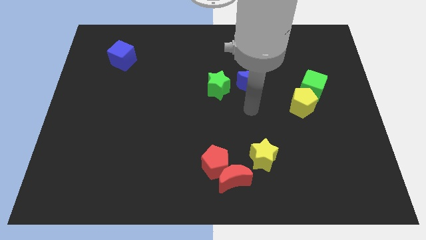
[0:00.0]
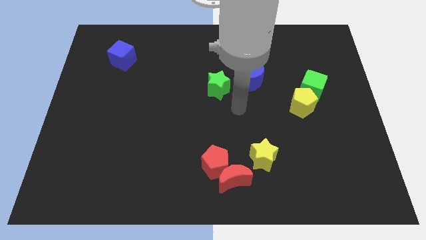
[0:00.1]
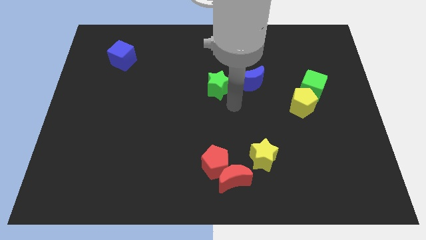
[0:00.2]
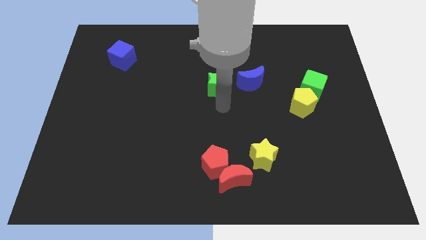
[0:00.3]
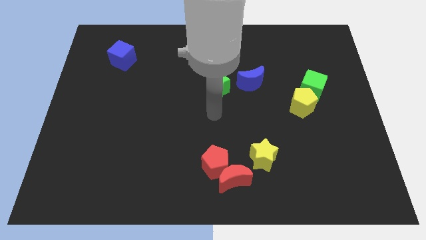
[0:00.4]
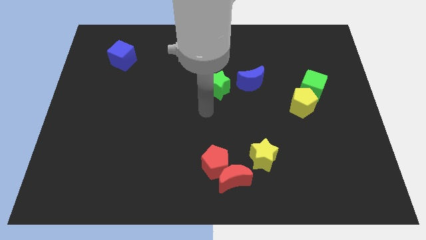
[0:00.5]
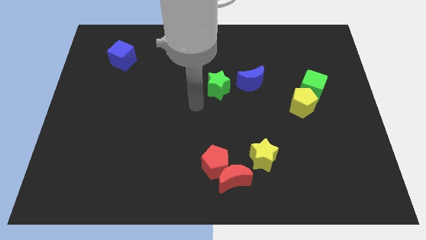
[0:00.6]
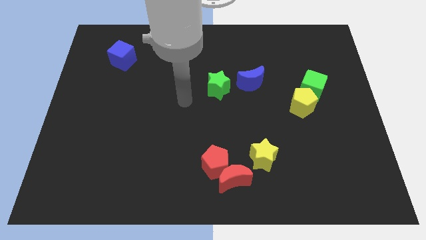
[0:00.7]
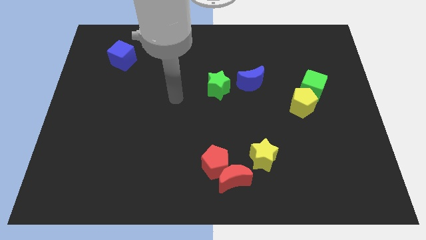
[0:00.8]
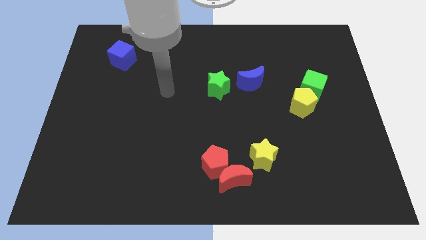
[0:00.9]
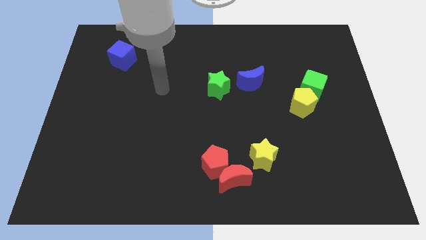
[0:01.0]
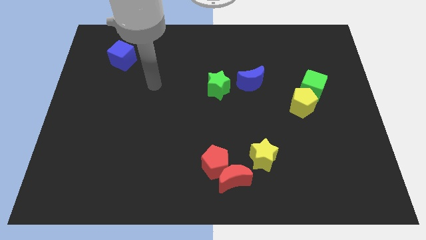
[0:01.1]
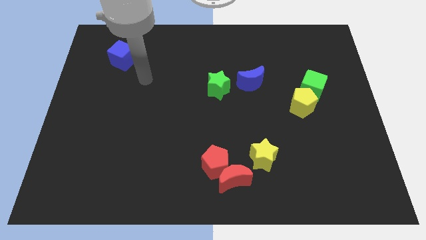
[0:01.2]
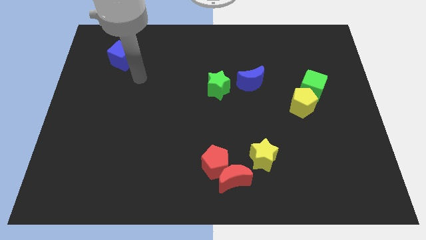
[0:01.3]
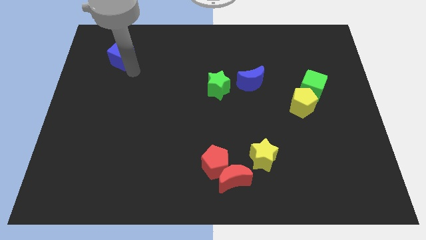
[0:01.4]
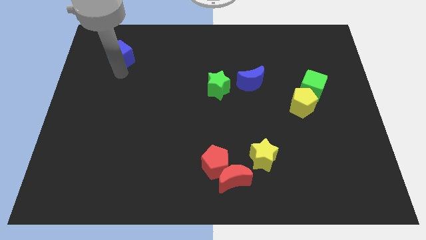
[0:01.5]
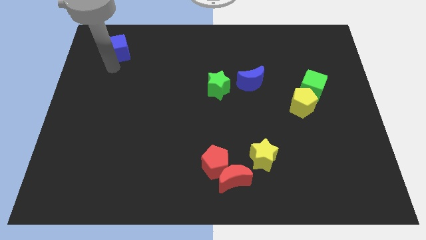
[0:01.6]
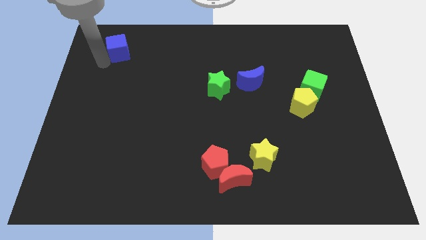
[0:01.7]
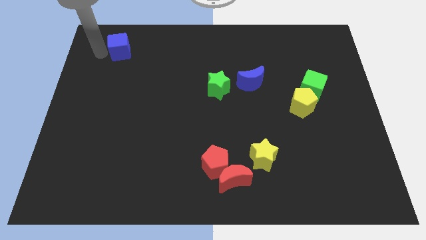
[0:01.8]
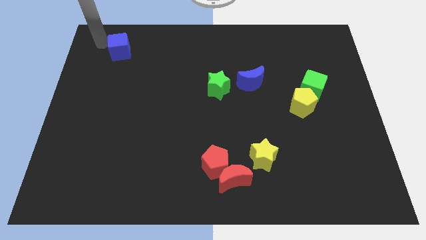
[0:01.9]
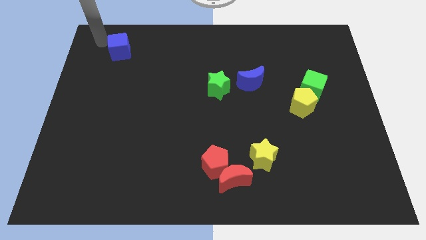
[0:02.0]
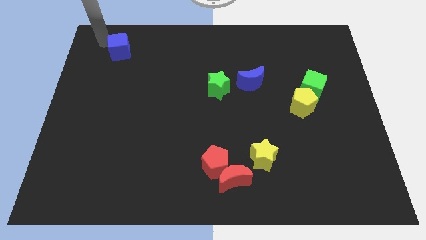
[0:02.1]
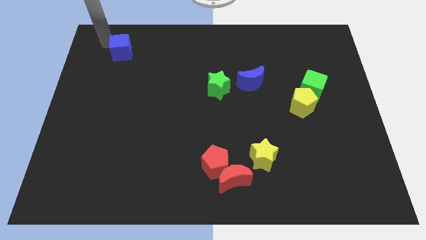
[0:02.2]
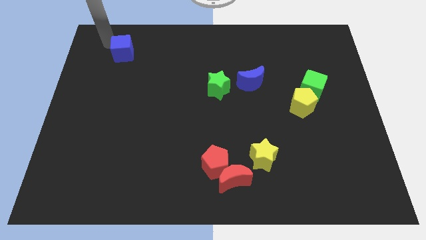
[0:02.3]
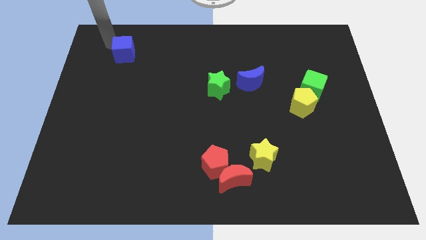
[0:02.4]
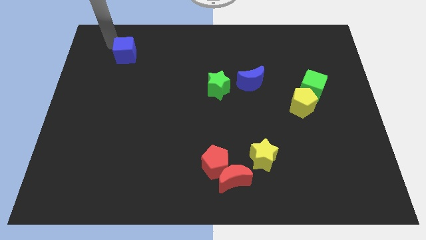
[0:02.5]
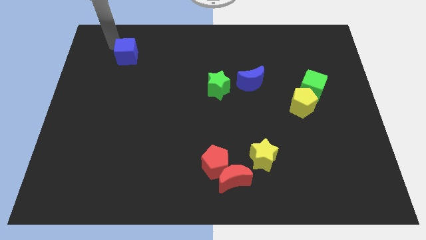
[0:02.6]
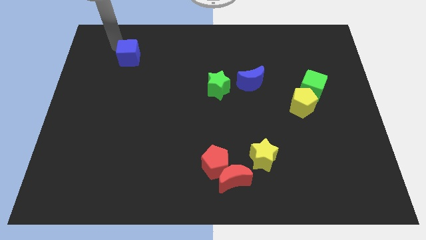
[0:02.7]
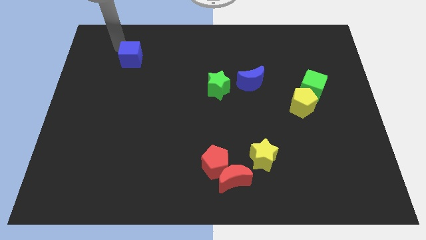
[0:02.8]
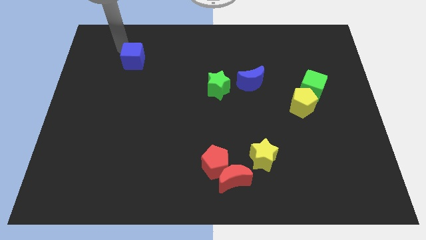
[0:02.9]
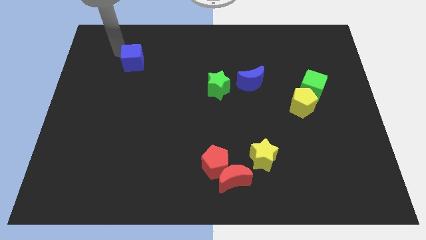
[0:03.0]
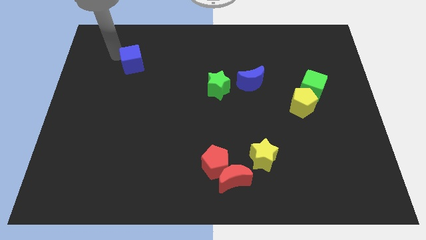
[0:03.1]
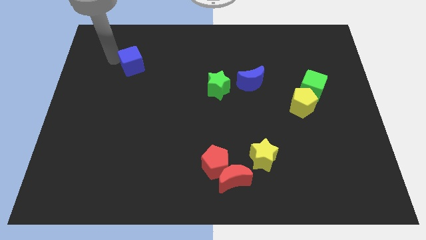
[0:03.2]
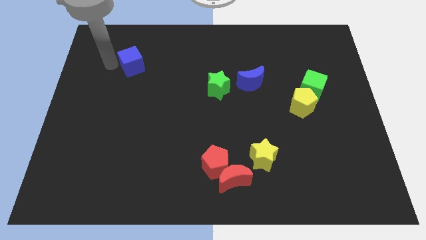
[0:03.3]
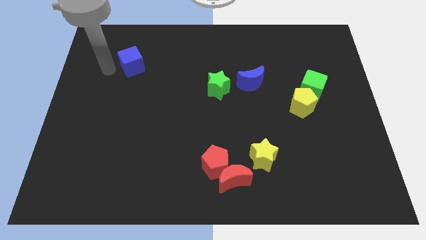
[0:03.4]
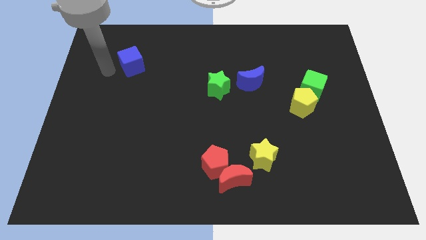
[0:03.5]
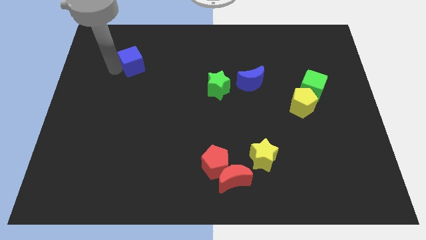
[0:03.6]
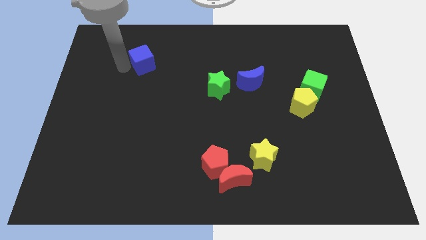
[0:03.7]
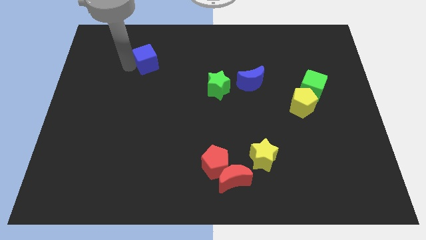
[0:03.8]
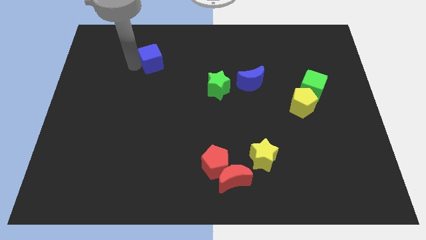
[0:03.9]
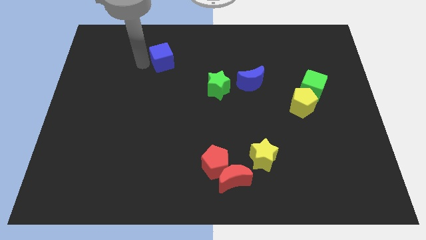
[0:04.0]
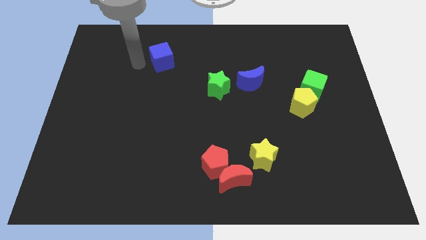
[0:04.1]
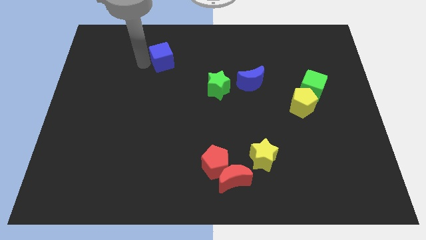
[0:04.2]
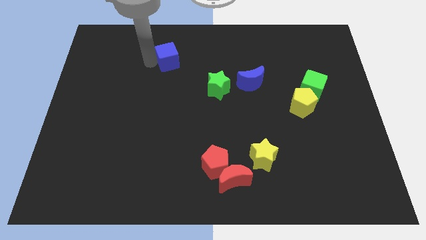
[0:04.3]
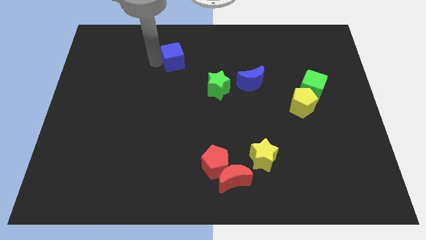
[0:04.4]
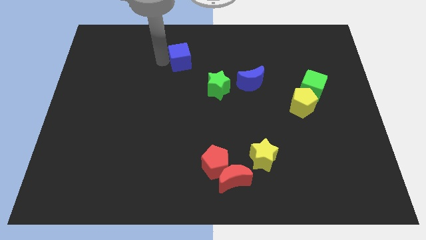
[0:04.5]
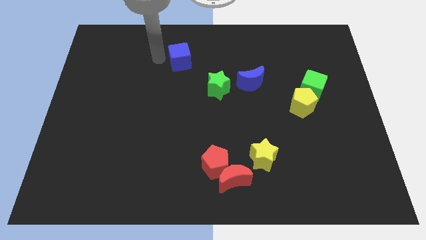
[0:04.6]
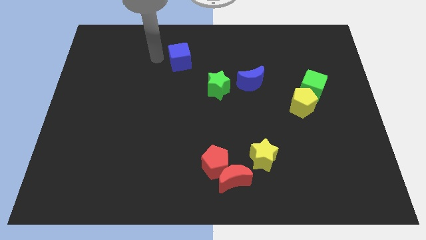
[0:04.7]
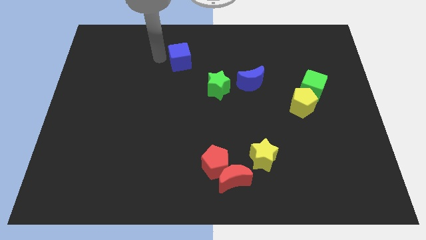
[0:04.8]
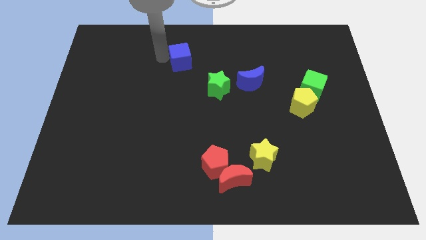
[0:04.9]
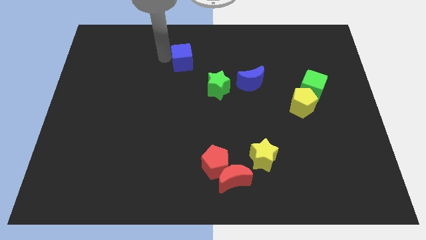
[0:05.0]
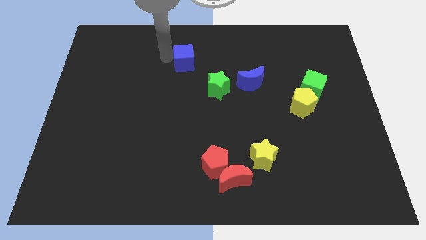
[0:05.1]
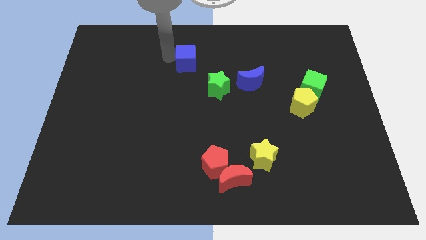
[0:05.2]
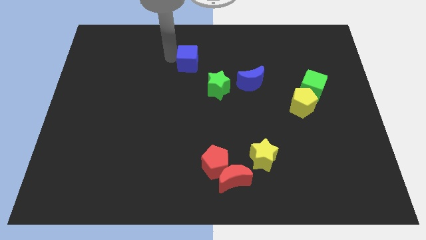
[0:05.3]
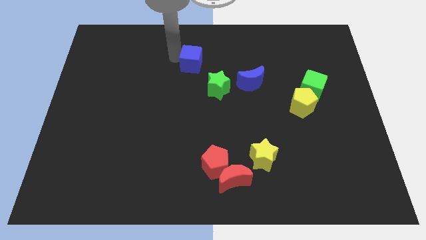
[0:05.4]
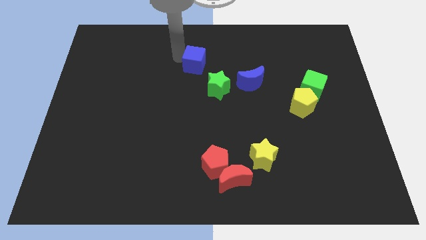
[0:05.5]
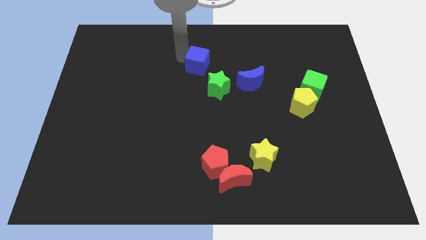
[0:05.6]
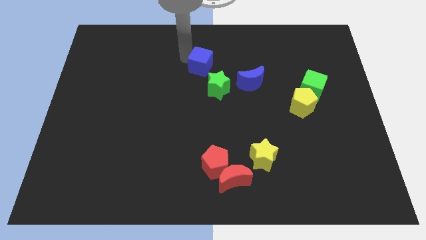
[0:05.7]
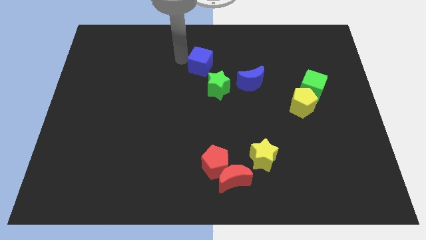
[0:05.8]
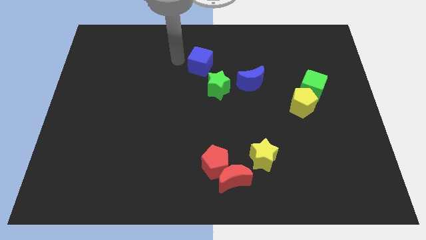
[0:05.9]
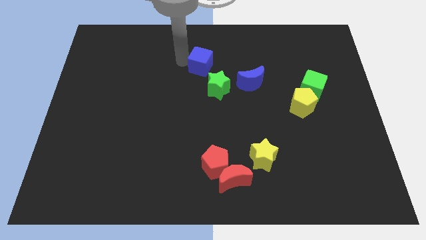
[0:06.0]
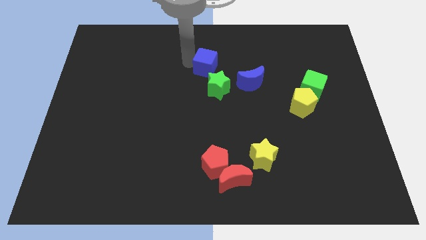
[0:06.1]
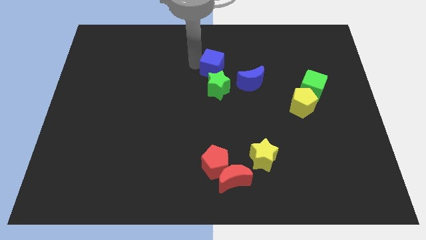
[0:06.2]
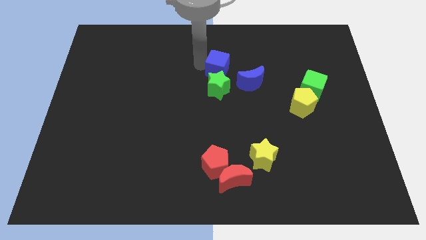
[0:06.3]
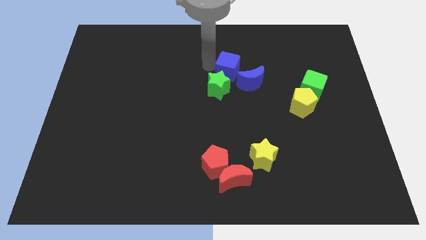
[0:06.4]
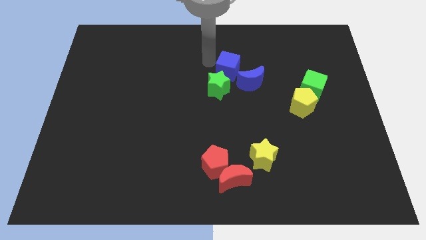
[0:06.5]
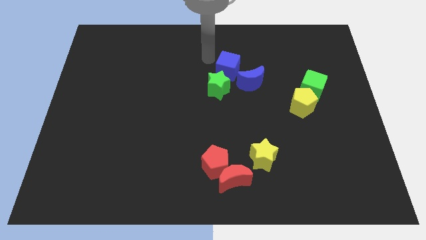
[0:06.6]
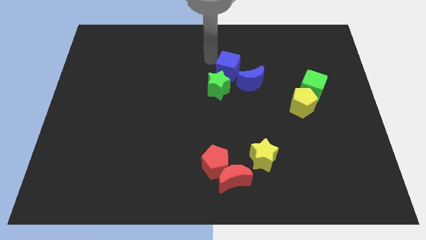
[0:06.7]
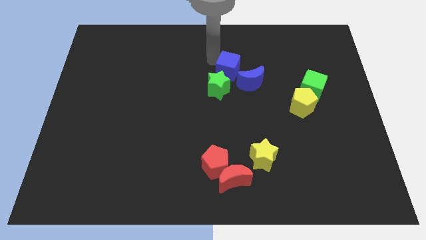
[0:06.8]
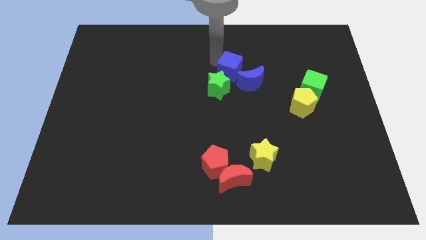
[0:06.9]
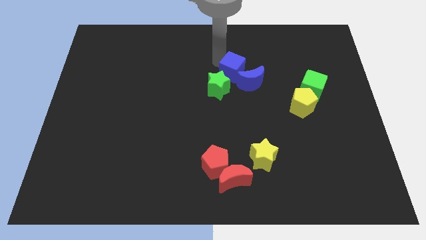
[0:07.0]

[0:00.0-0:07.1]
move the blue cube close to the blue moon
